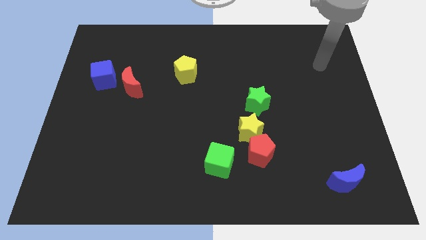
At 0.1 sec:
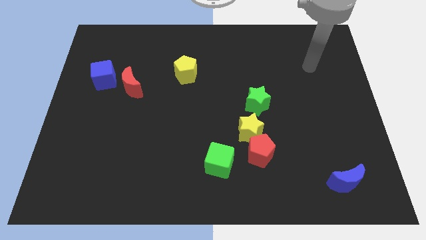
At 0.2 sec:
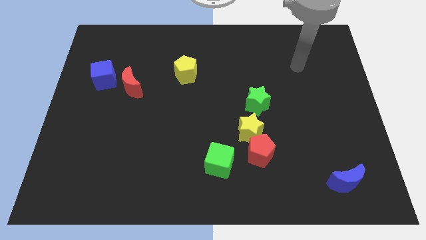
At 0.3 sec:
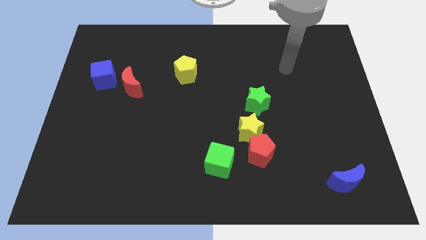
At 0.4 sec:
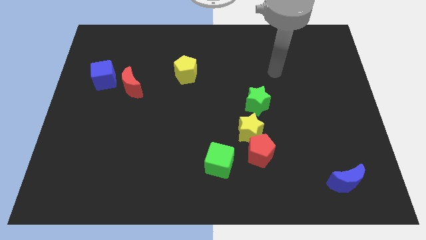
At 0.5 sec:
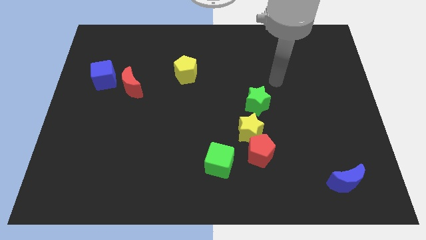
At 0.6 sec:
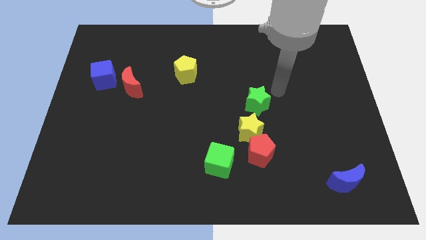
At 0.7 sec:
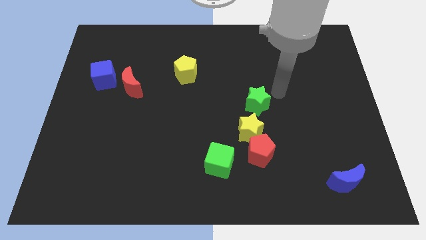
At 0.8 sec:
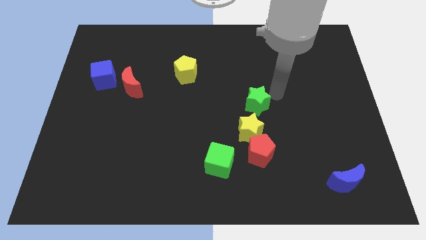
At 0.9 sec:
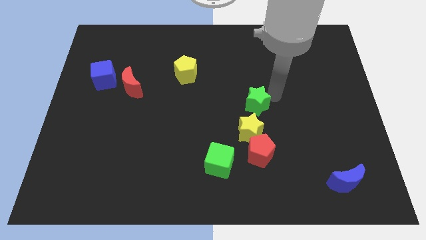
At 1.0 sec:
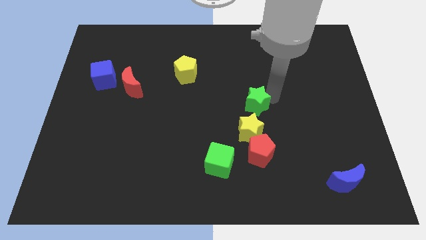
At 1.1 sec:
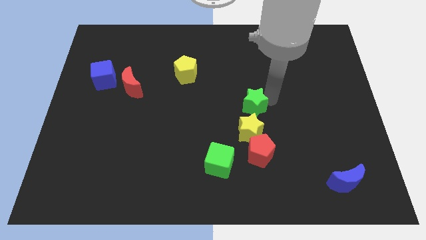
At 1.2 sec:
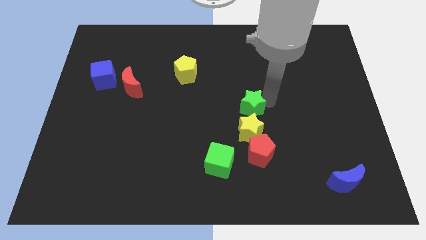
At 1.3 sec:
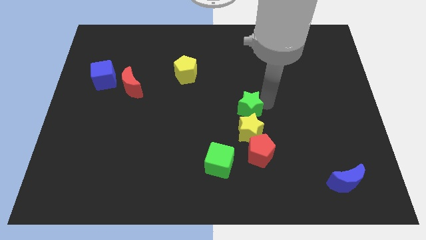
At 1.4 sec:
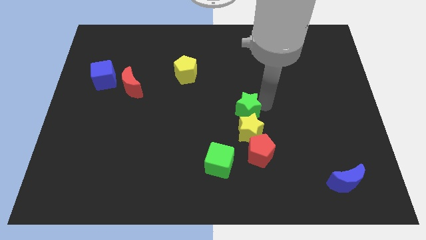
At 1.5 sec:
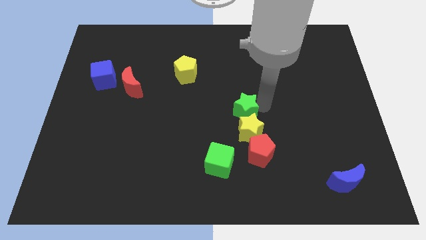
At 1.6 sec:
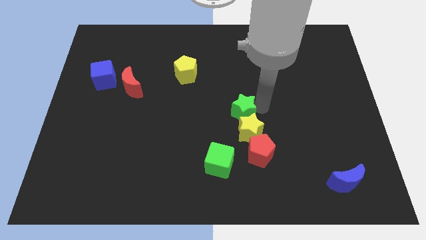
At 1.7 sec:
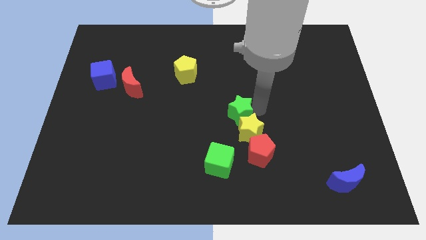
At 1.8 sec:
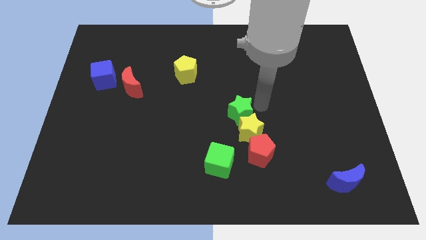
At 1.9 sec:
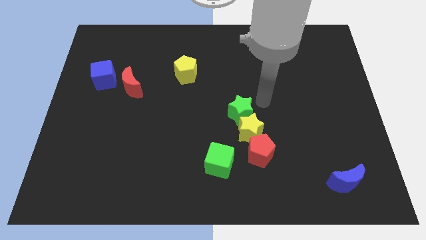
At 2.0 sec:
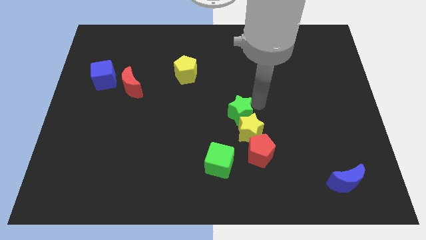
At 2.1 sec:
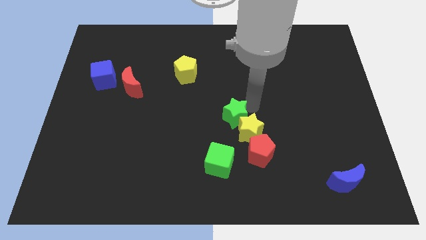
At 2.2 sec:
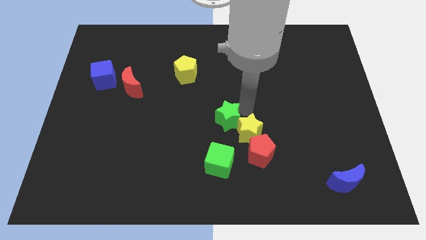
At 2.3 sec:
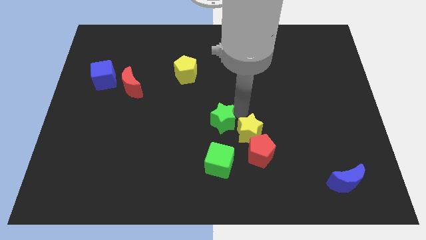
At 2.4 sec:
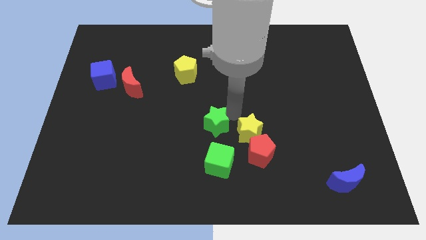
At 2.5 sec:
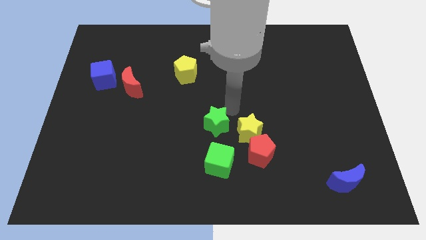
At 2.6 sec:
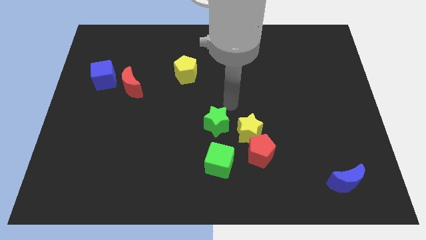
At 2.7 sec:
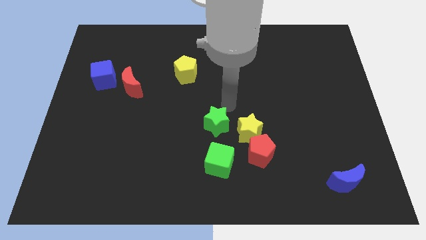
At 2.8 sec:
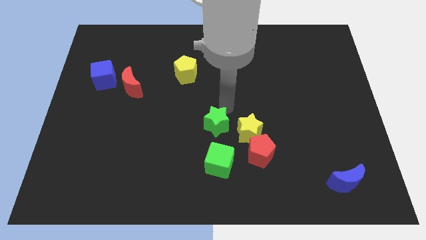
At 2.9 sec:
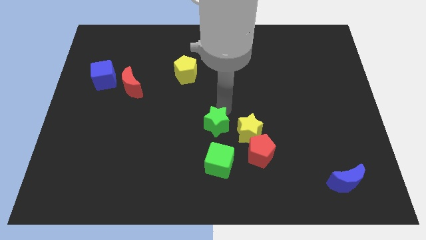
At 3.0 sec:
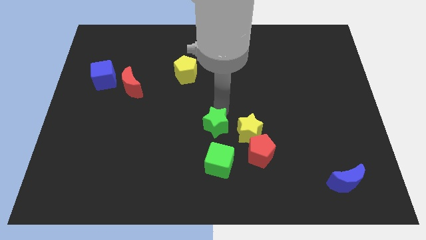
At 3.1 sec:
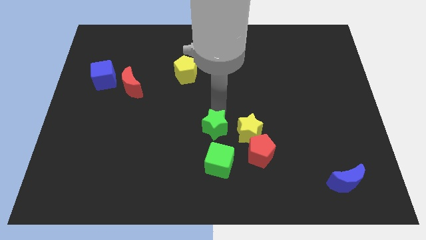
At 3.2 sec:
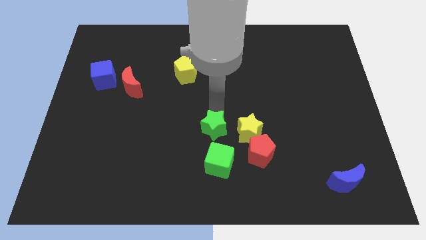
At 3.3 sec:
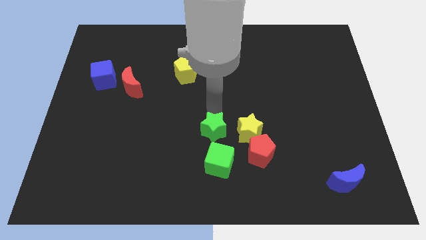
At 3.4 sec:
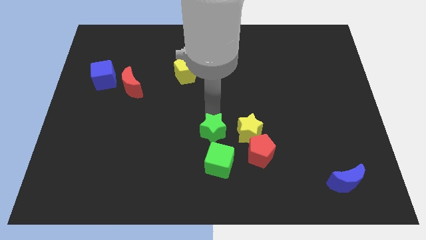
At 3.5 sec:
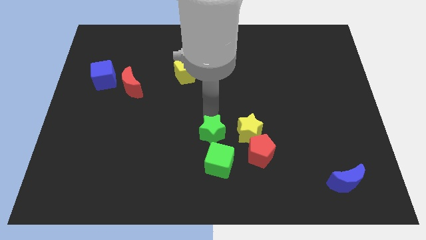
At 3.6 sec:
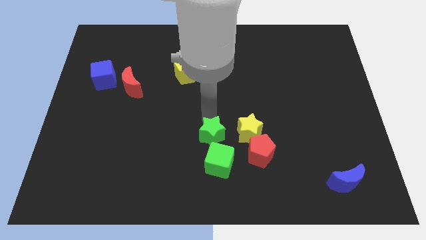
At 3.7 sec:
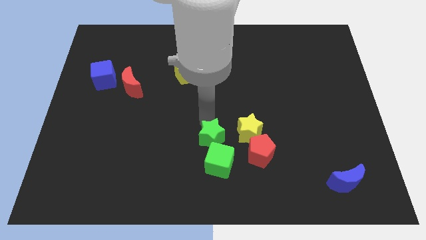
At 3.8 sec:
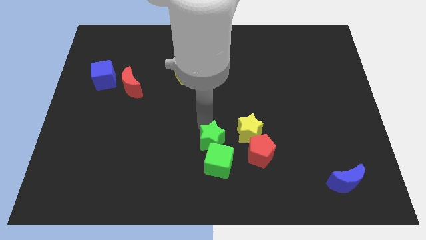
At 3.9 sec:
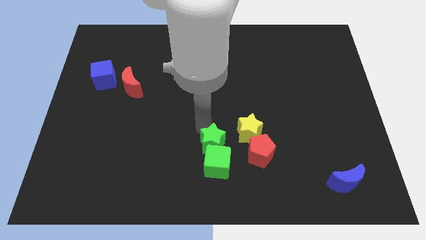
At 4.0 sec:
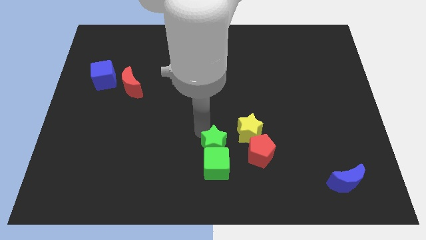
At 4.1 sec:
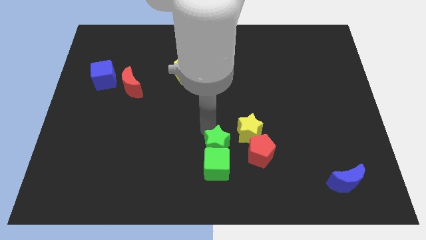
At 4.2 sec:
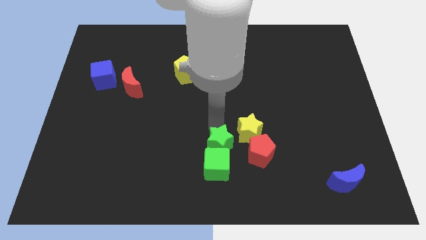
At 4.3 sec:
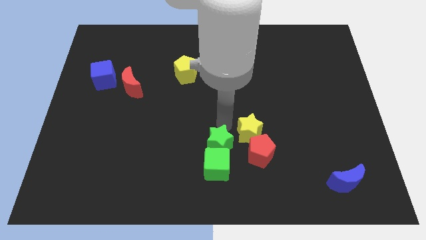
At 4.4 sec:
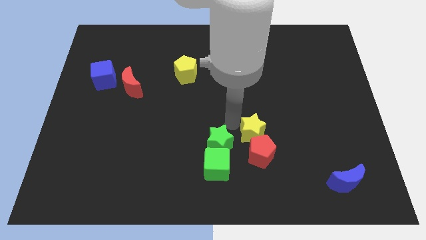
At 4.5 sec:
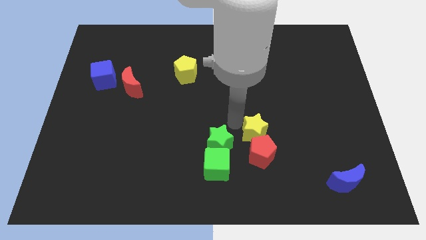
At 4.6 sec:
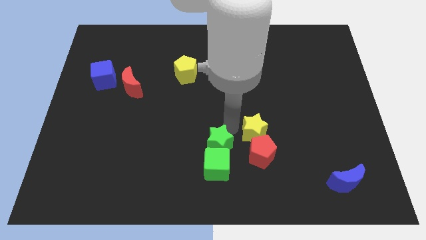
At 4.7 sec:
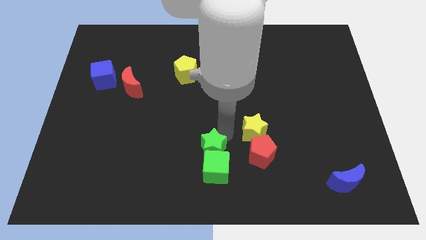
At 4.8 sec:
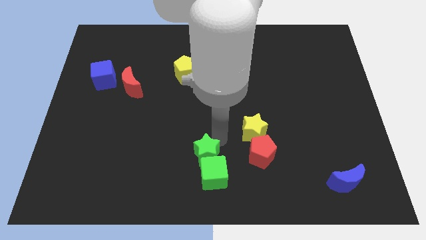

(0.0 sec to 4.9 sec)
slide the green star to the bottom

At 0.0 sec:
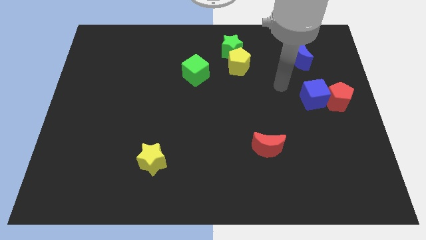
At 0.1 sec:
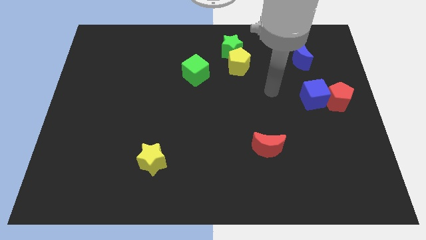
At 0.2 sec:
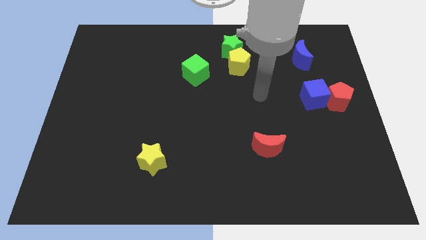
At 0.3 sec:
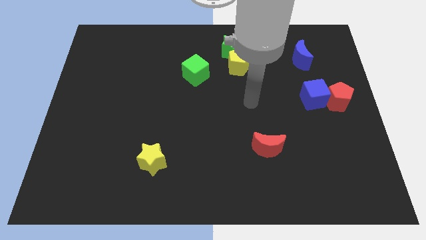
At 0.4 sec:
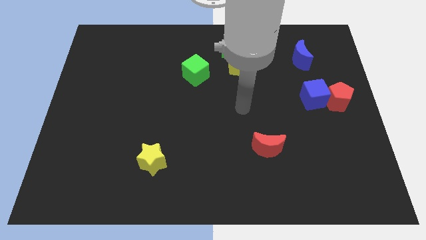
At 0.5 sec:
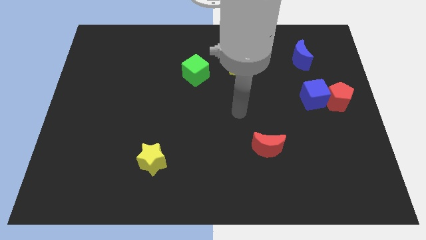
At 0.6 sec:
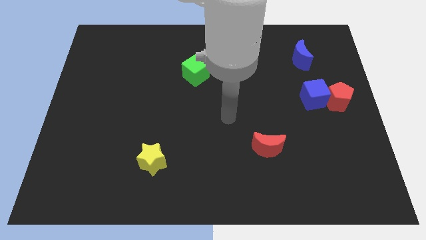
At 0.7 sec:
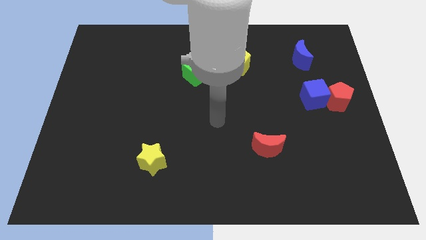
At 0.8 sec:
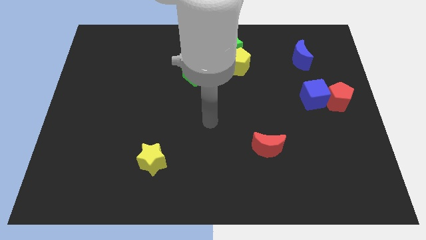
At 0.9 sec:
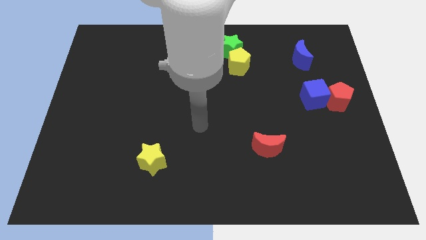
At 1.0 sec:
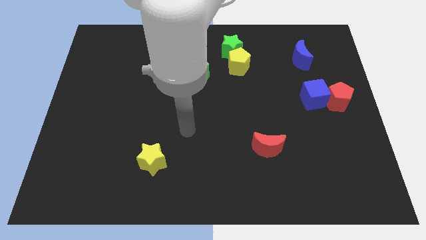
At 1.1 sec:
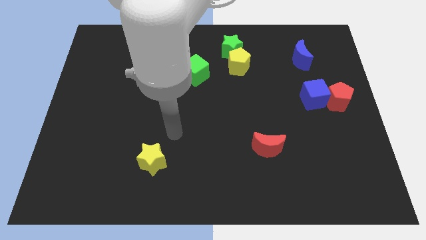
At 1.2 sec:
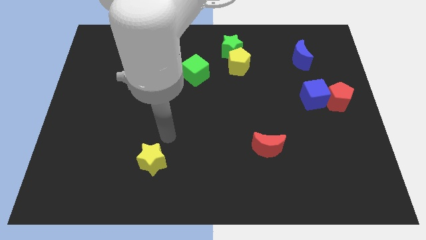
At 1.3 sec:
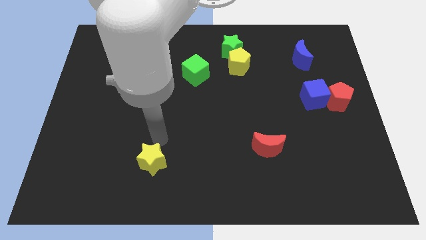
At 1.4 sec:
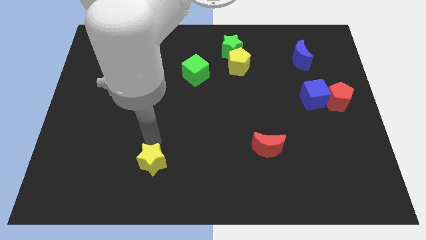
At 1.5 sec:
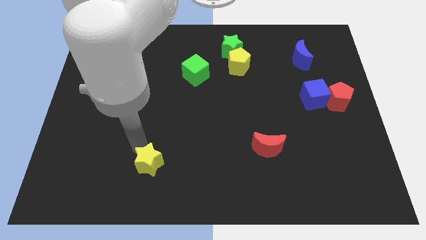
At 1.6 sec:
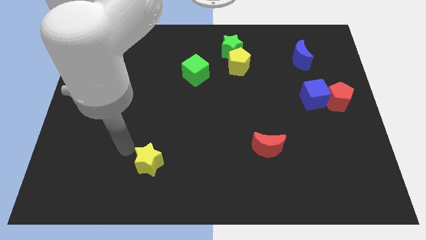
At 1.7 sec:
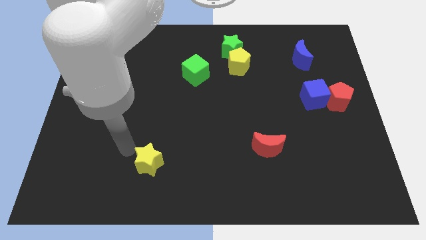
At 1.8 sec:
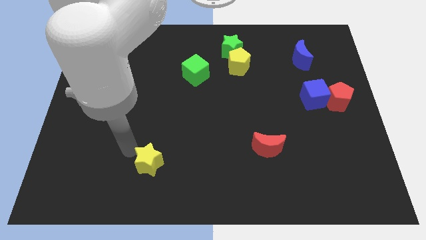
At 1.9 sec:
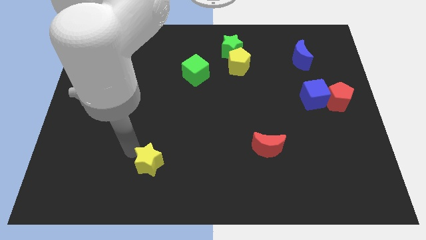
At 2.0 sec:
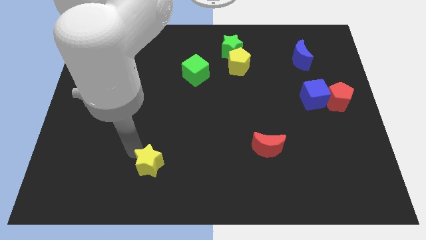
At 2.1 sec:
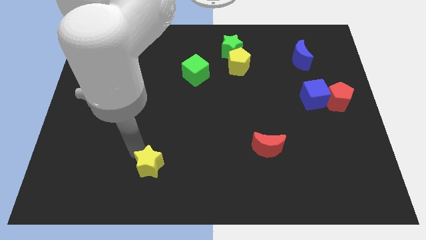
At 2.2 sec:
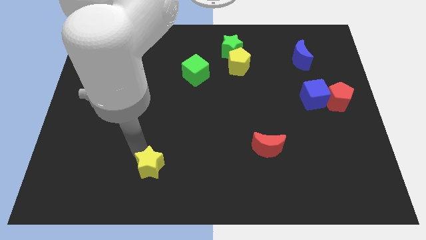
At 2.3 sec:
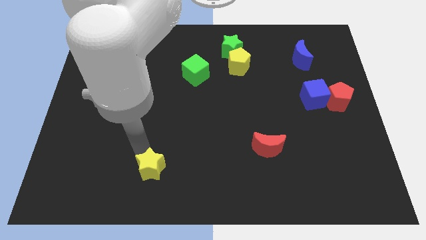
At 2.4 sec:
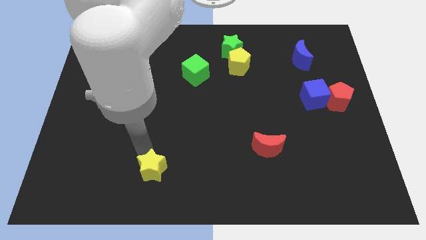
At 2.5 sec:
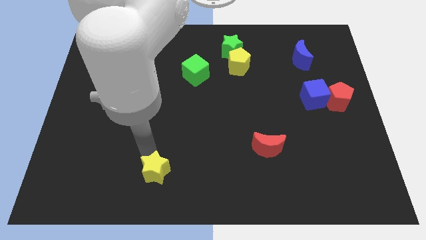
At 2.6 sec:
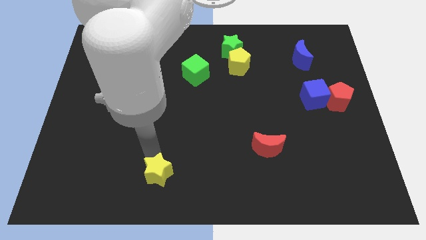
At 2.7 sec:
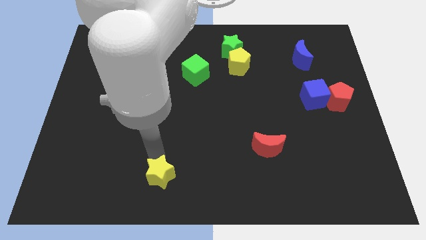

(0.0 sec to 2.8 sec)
push the yellow star to the bottom side
